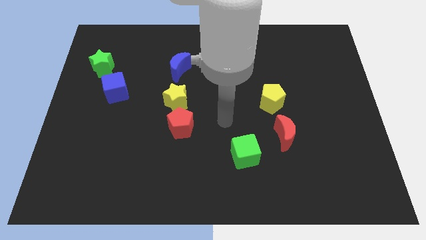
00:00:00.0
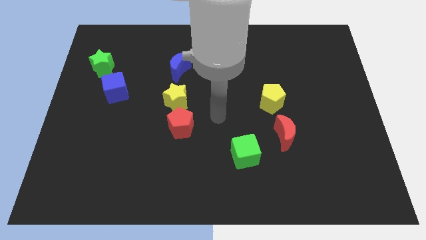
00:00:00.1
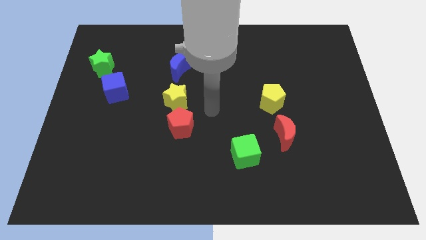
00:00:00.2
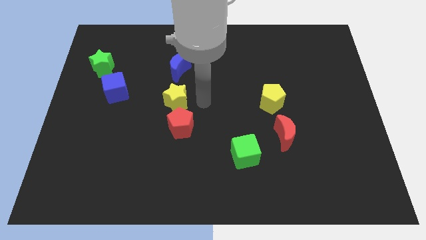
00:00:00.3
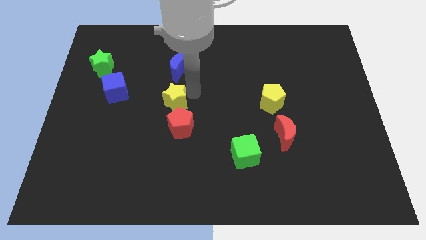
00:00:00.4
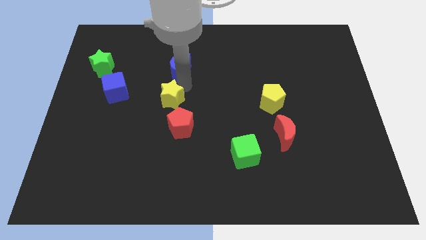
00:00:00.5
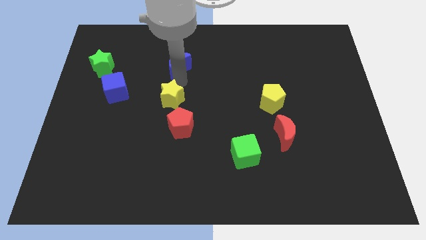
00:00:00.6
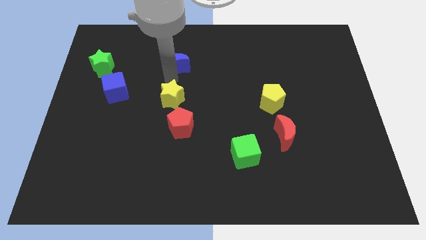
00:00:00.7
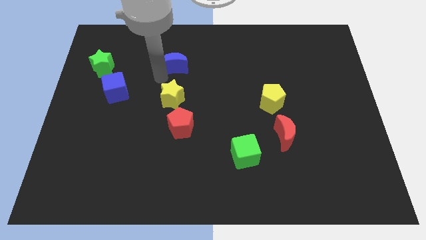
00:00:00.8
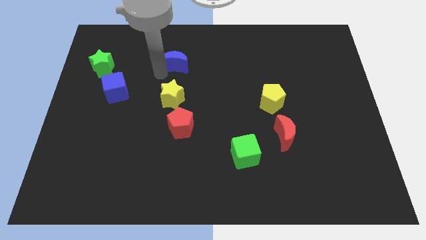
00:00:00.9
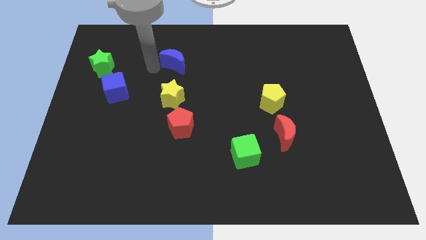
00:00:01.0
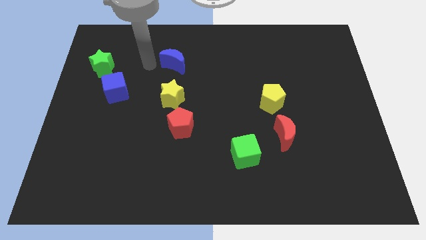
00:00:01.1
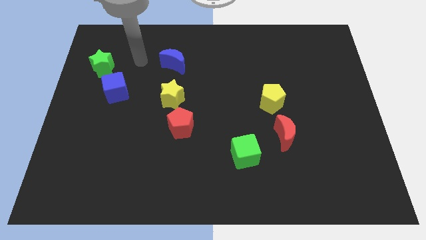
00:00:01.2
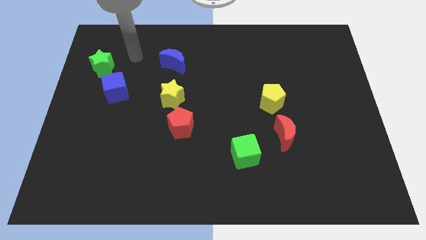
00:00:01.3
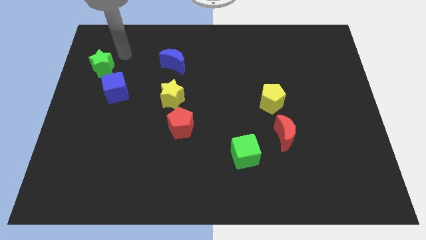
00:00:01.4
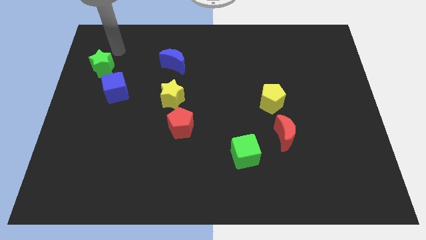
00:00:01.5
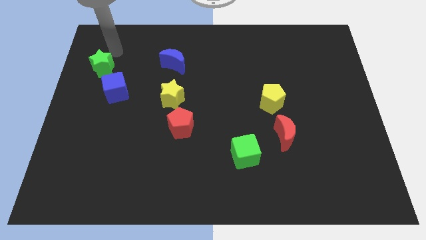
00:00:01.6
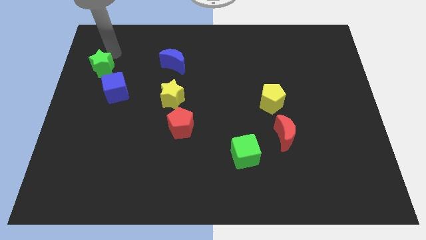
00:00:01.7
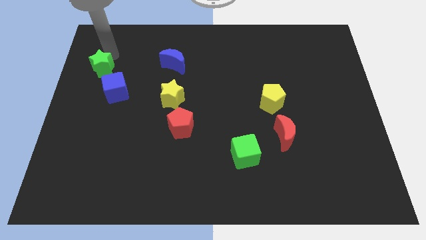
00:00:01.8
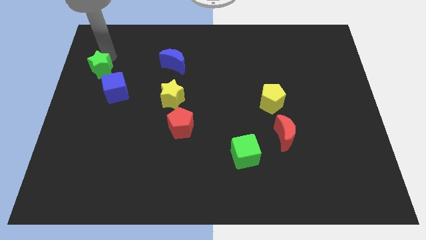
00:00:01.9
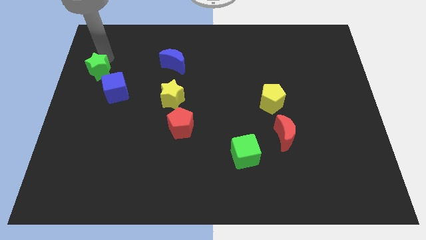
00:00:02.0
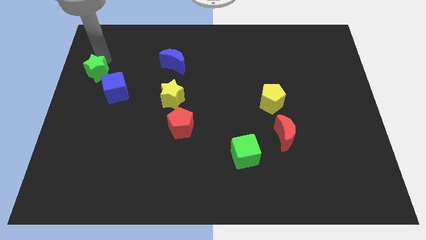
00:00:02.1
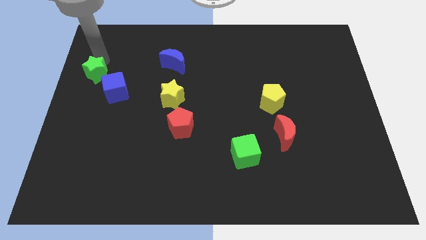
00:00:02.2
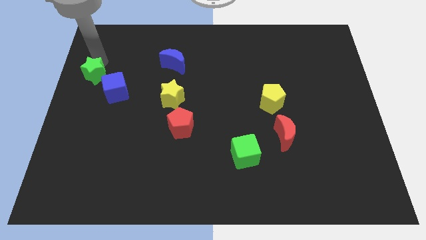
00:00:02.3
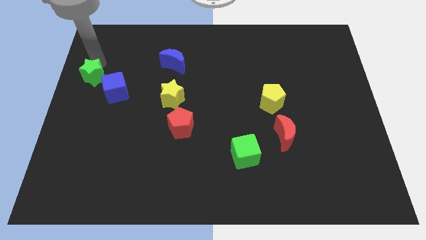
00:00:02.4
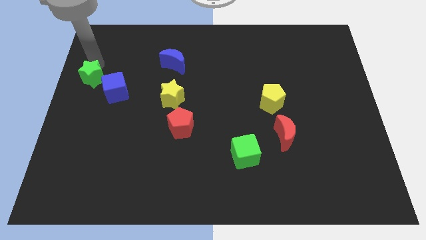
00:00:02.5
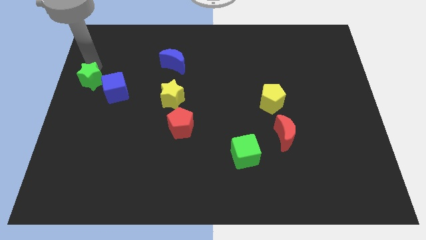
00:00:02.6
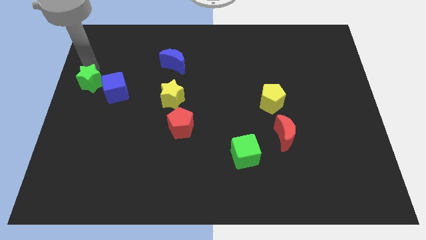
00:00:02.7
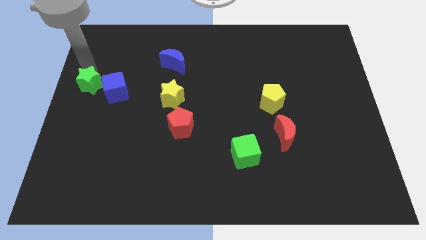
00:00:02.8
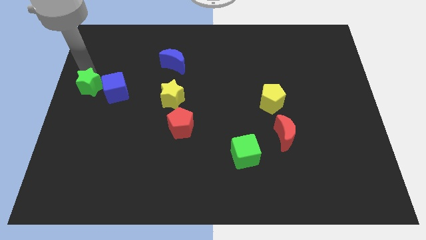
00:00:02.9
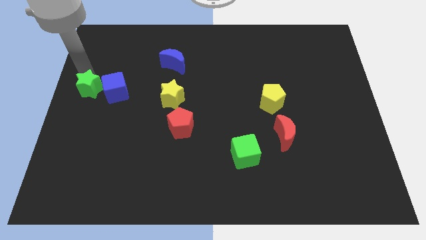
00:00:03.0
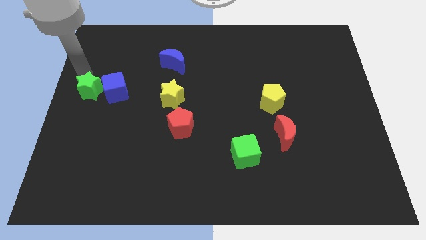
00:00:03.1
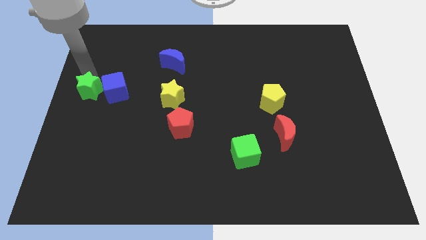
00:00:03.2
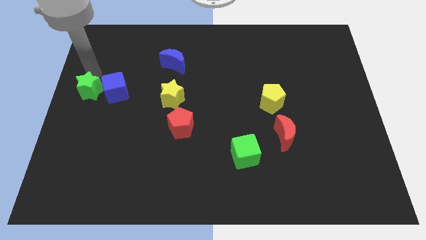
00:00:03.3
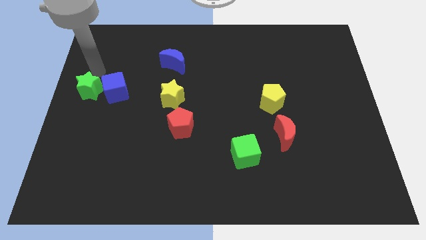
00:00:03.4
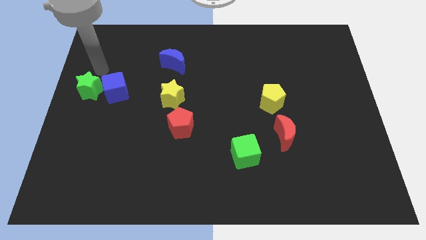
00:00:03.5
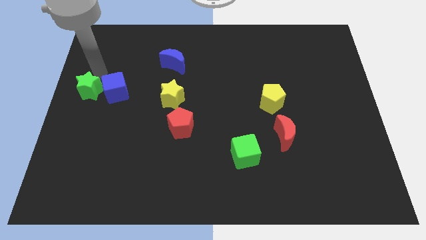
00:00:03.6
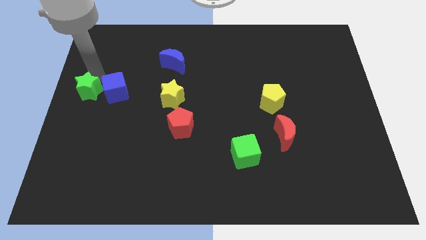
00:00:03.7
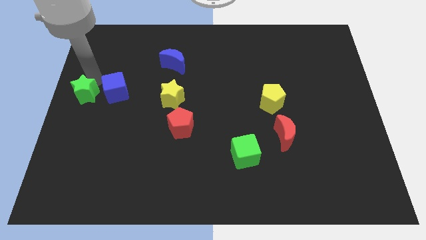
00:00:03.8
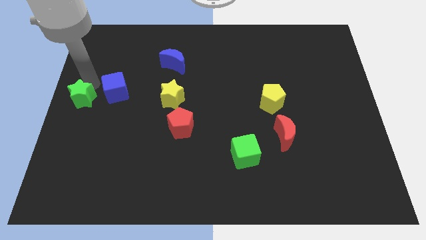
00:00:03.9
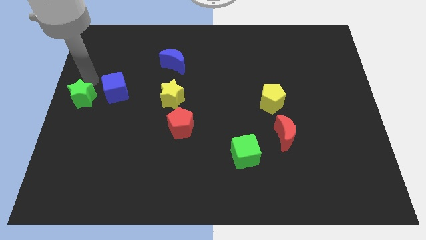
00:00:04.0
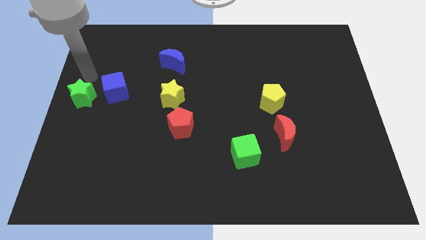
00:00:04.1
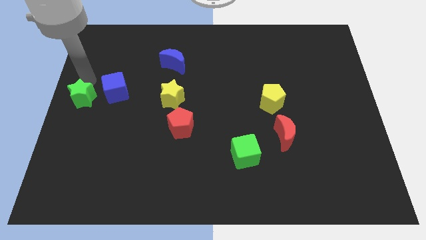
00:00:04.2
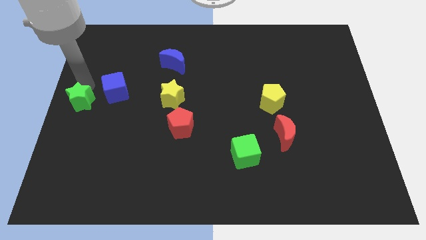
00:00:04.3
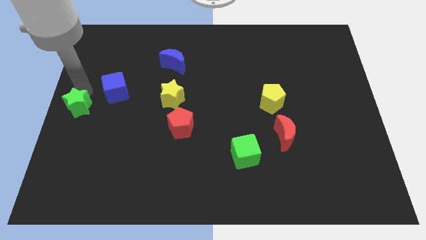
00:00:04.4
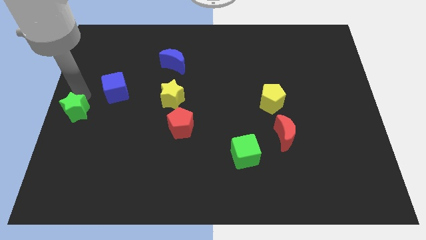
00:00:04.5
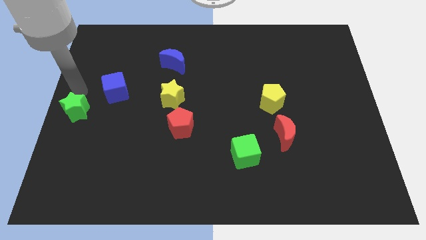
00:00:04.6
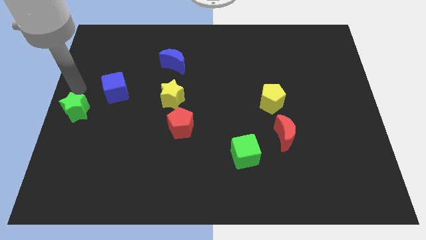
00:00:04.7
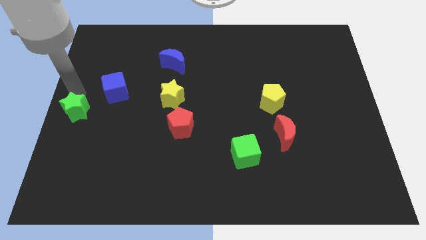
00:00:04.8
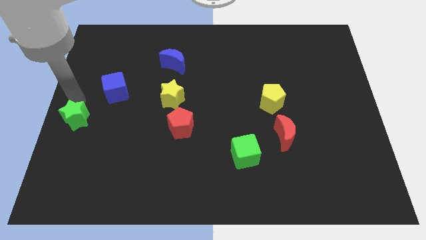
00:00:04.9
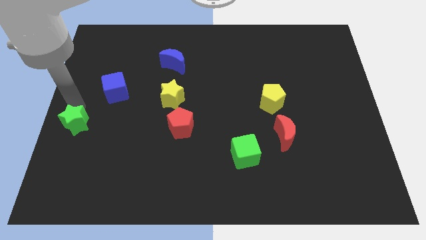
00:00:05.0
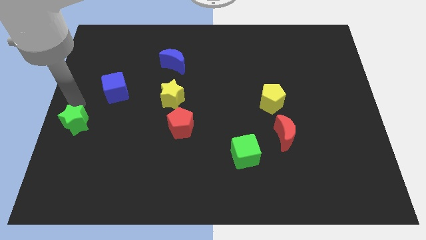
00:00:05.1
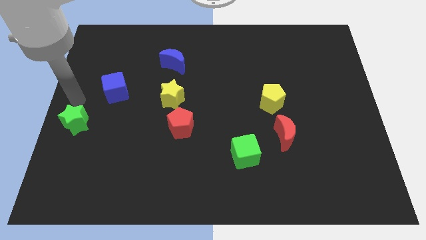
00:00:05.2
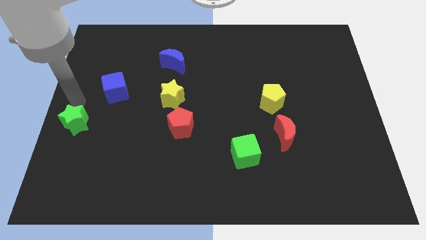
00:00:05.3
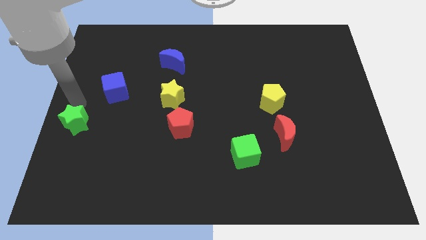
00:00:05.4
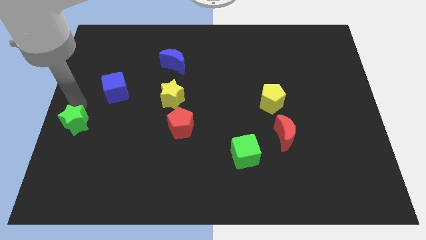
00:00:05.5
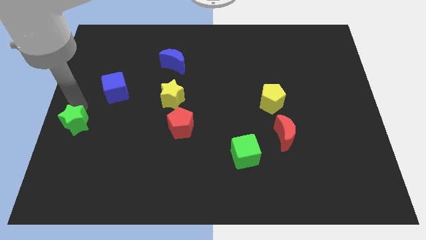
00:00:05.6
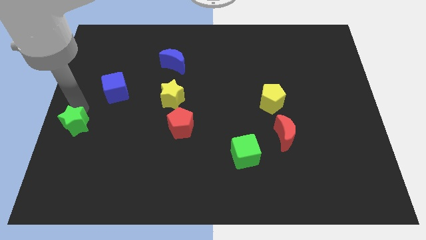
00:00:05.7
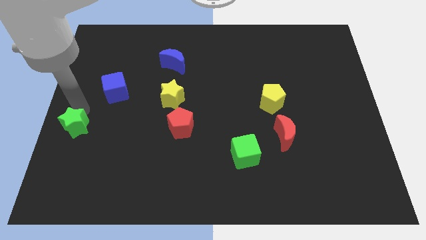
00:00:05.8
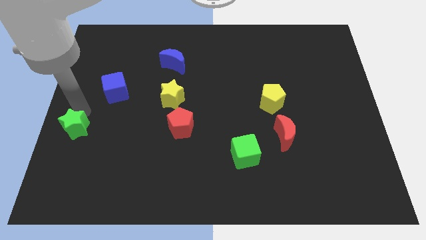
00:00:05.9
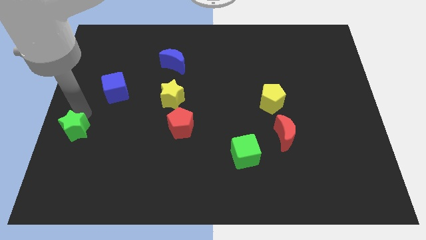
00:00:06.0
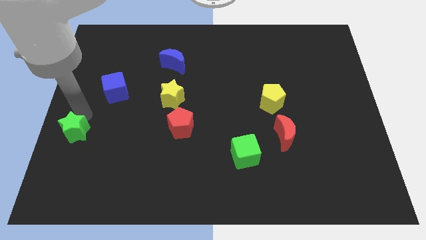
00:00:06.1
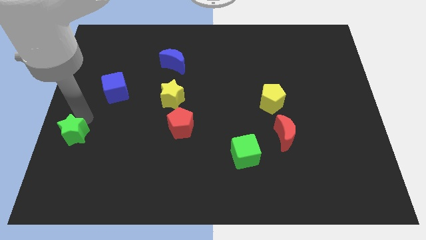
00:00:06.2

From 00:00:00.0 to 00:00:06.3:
slide the green star downwards

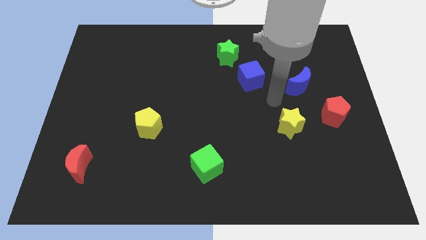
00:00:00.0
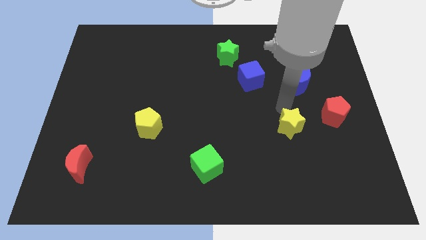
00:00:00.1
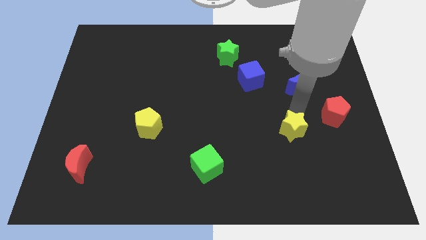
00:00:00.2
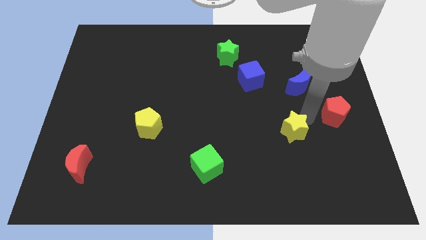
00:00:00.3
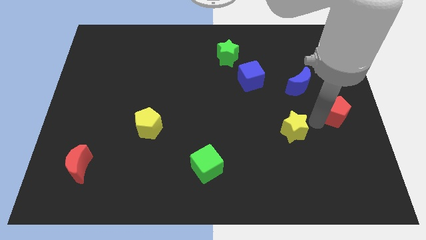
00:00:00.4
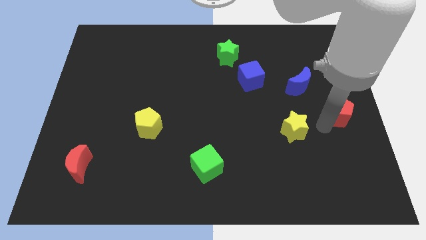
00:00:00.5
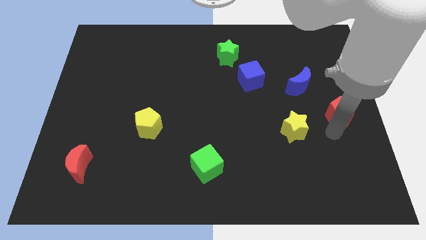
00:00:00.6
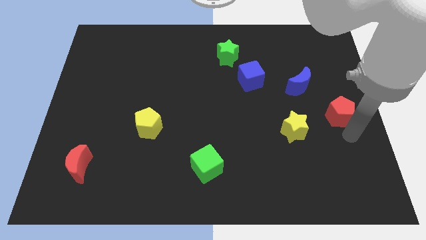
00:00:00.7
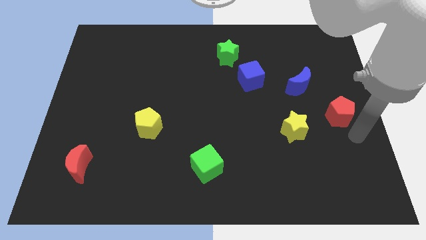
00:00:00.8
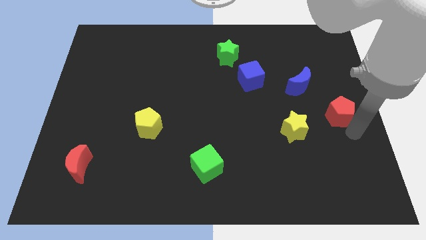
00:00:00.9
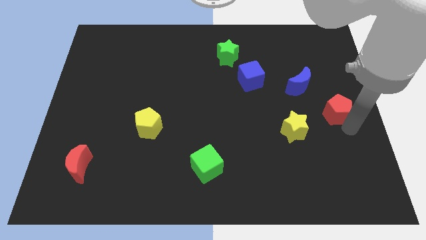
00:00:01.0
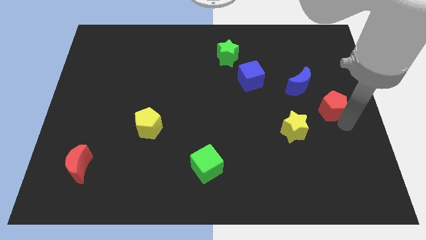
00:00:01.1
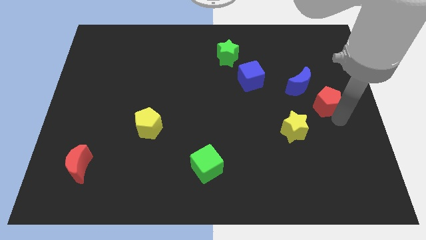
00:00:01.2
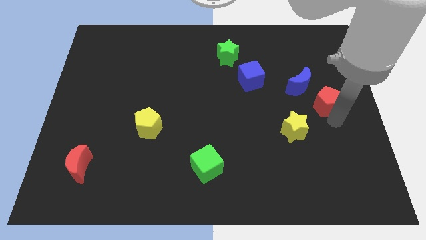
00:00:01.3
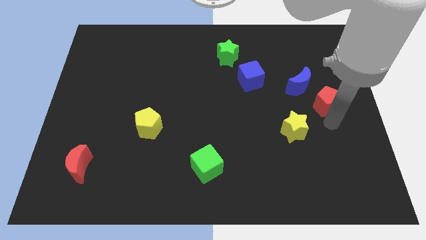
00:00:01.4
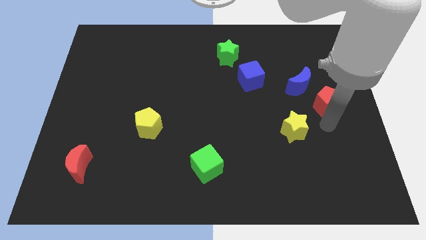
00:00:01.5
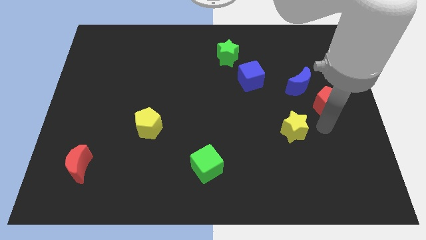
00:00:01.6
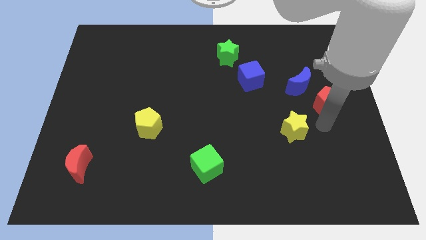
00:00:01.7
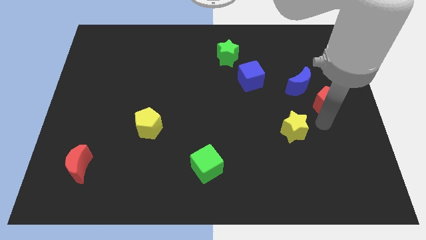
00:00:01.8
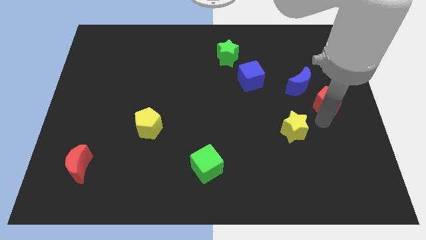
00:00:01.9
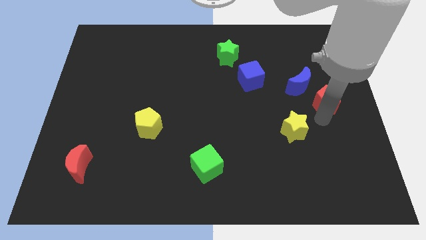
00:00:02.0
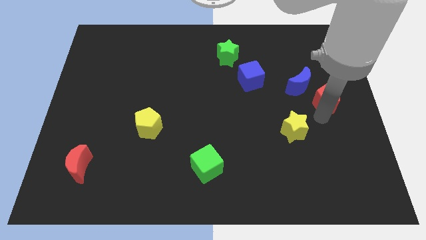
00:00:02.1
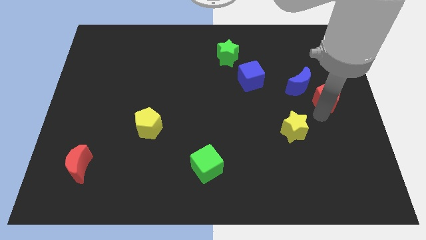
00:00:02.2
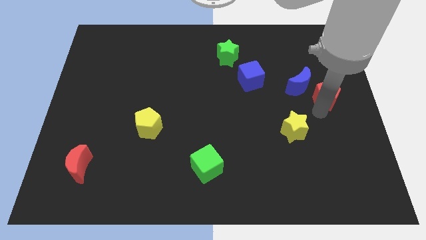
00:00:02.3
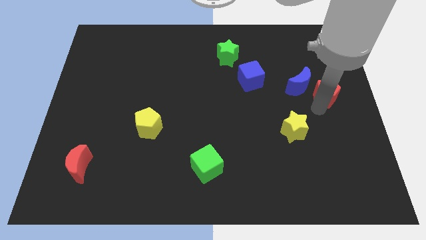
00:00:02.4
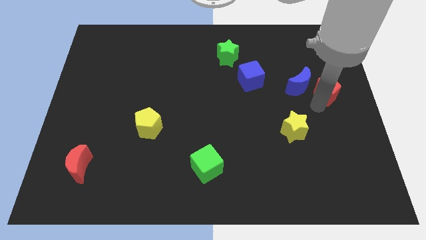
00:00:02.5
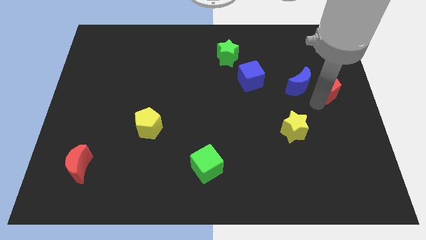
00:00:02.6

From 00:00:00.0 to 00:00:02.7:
move the red pentagon somewhat up
